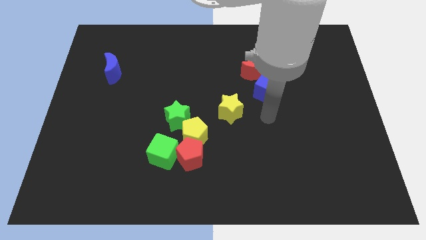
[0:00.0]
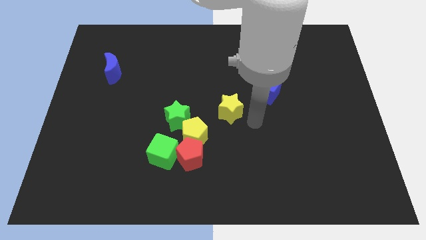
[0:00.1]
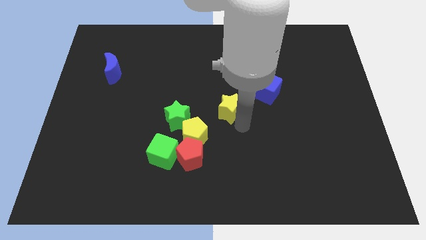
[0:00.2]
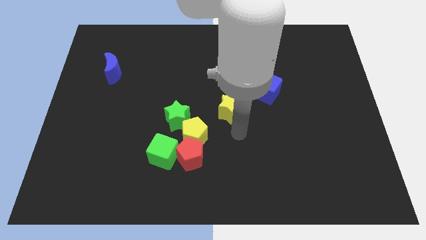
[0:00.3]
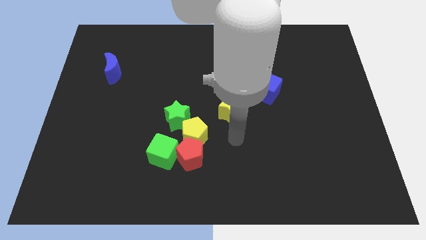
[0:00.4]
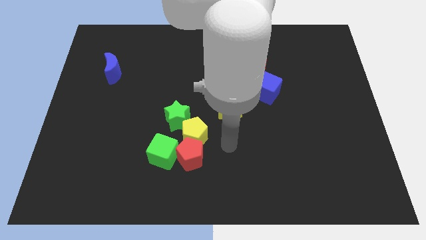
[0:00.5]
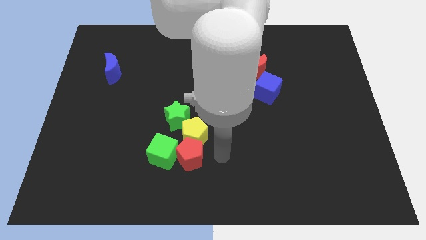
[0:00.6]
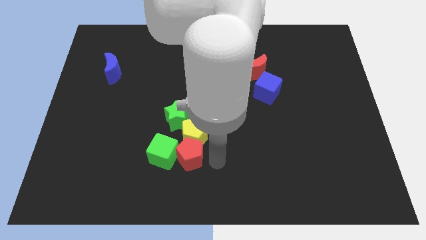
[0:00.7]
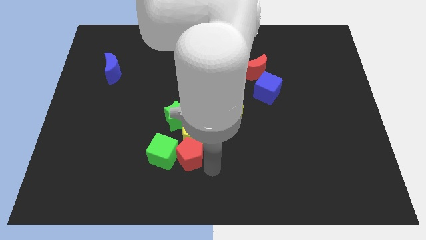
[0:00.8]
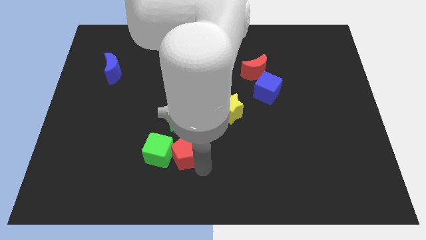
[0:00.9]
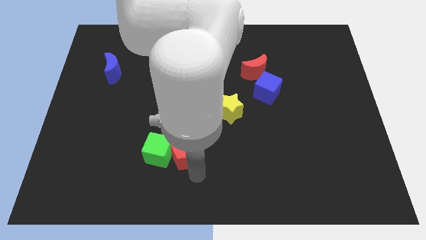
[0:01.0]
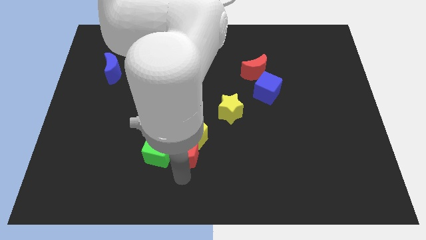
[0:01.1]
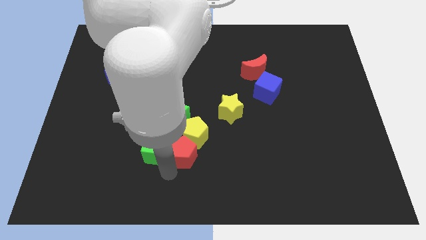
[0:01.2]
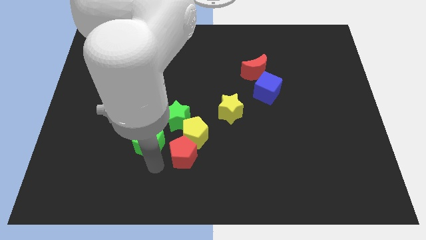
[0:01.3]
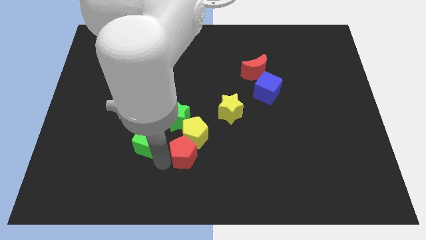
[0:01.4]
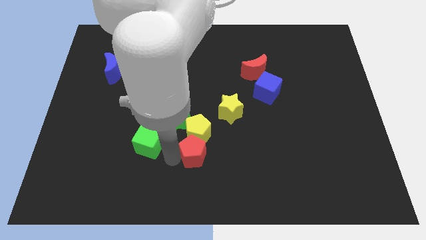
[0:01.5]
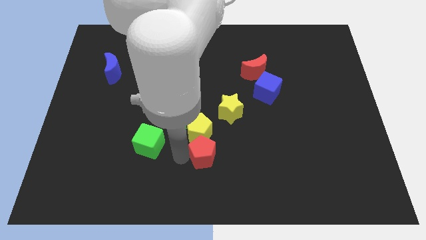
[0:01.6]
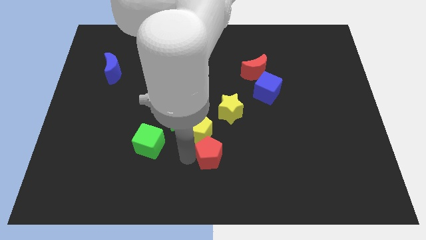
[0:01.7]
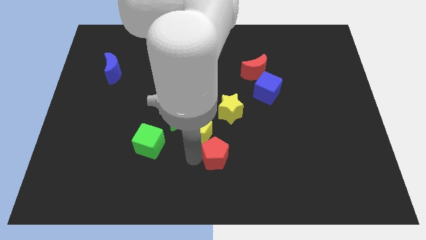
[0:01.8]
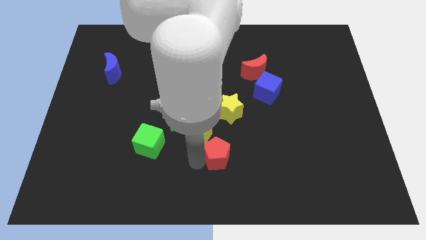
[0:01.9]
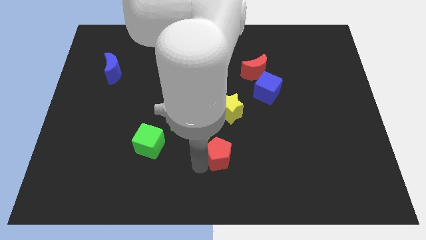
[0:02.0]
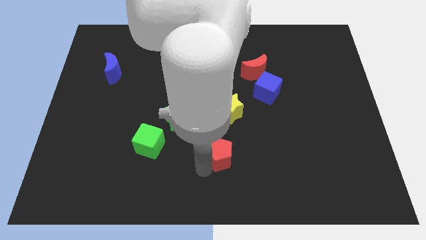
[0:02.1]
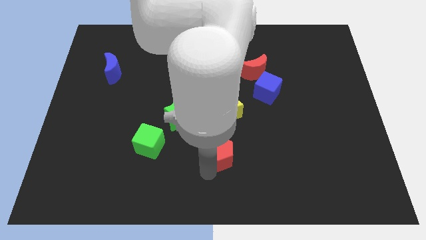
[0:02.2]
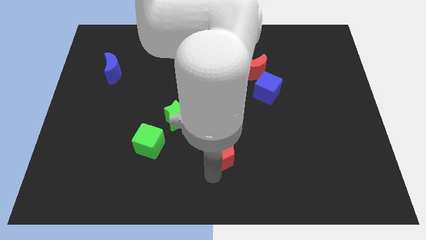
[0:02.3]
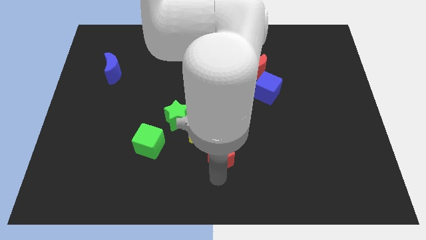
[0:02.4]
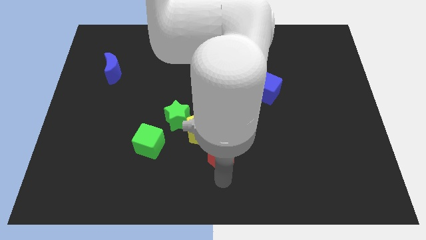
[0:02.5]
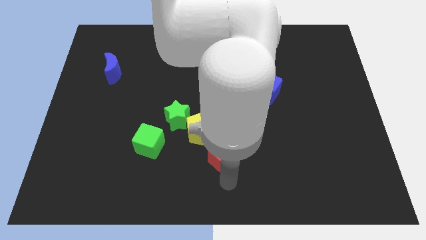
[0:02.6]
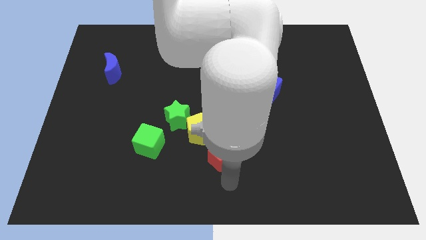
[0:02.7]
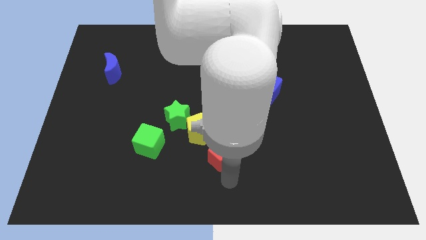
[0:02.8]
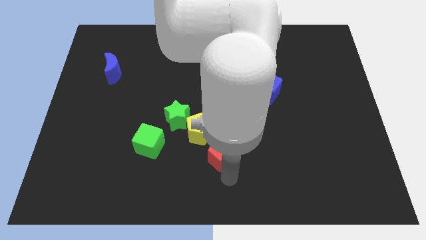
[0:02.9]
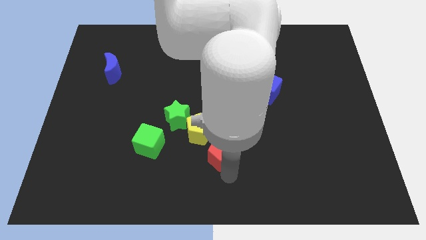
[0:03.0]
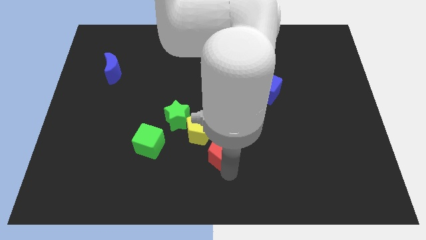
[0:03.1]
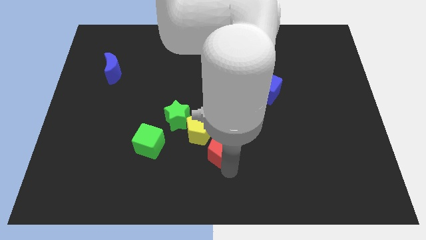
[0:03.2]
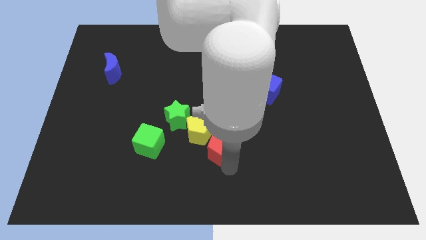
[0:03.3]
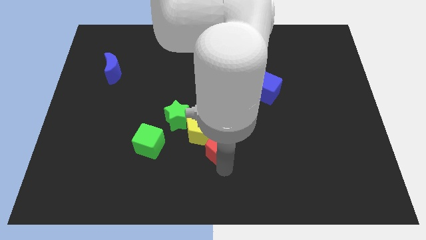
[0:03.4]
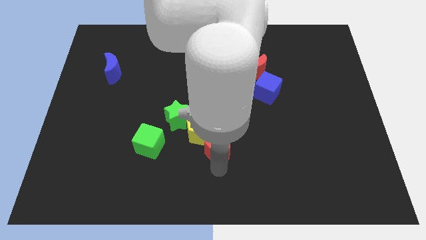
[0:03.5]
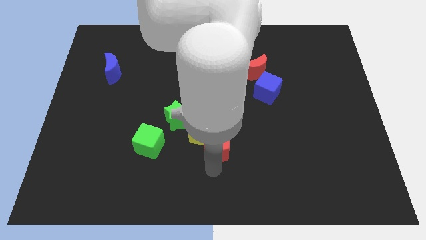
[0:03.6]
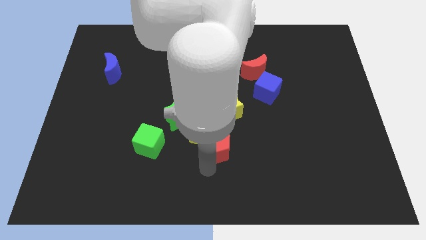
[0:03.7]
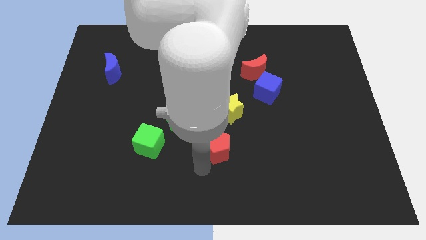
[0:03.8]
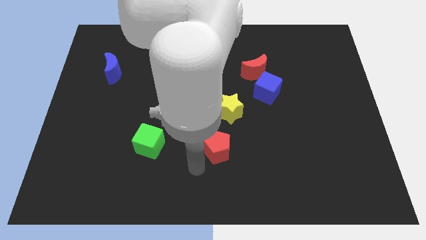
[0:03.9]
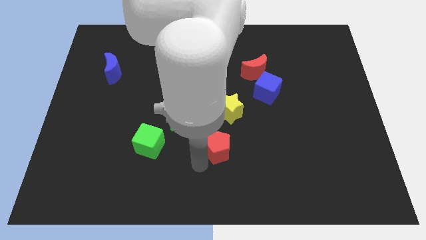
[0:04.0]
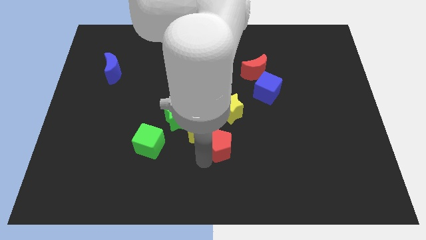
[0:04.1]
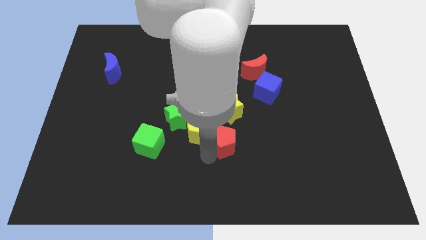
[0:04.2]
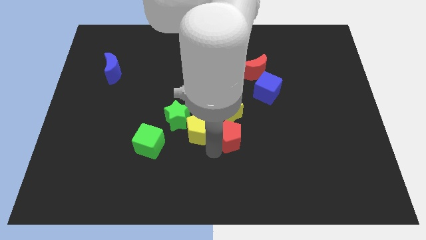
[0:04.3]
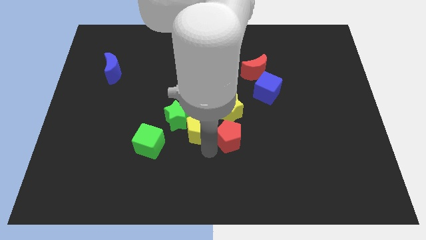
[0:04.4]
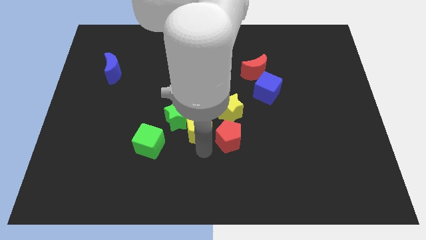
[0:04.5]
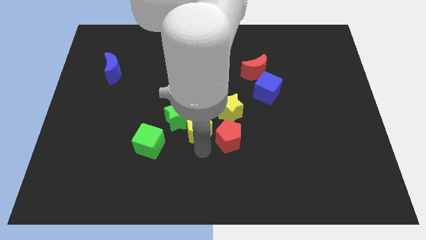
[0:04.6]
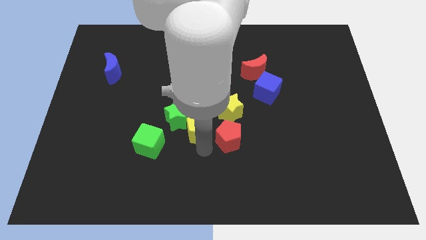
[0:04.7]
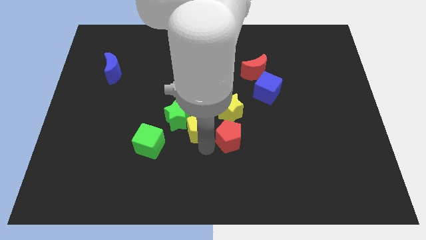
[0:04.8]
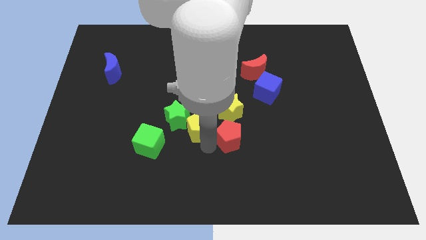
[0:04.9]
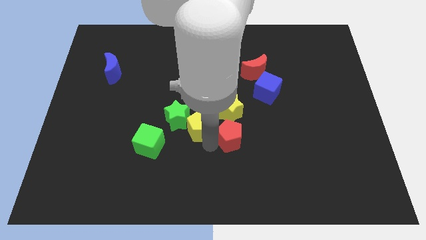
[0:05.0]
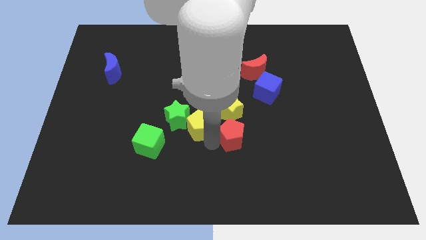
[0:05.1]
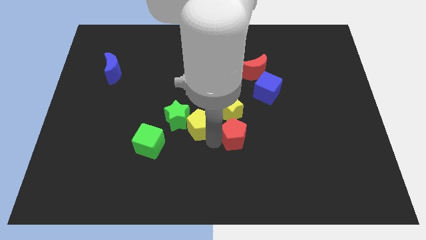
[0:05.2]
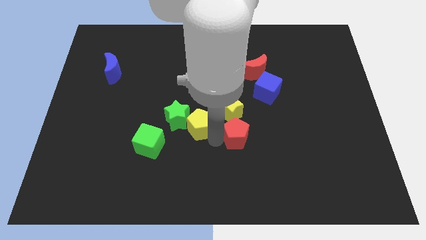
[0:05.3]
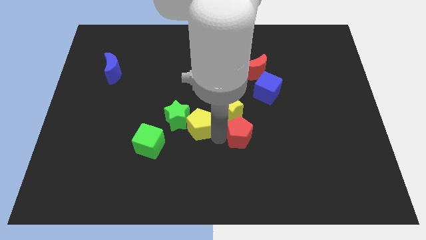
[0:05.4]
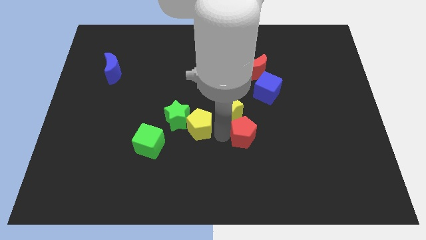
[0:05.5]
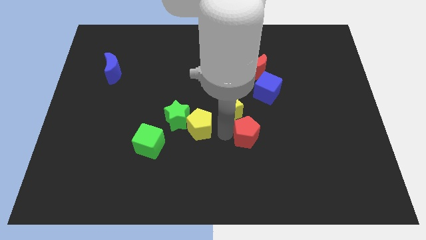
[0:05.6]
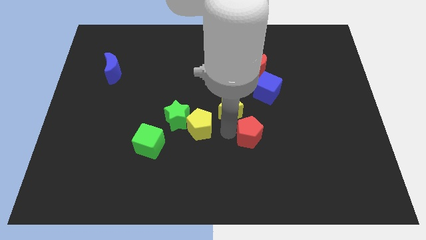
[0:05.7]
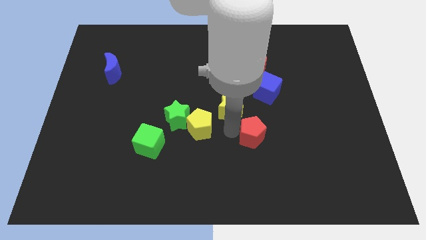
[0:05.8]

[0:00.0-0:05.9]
push the red pentagon to the bottom of the blue cube

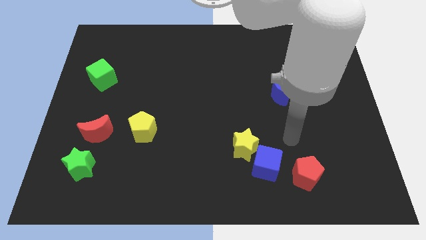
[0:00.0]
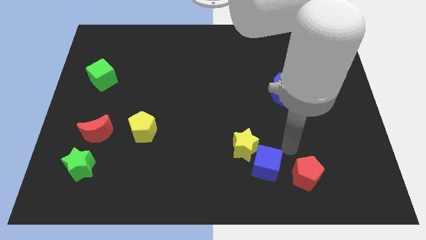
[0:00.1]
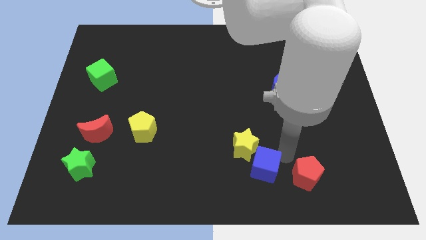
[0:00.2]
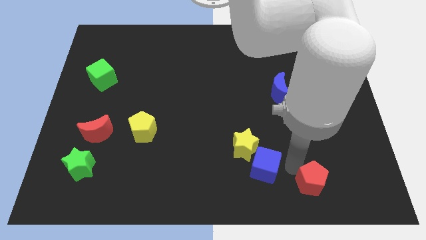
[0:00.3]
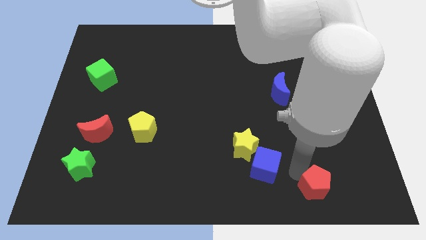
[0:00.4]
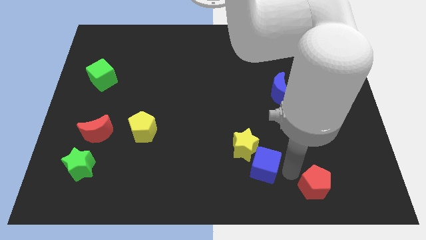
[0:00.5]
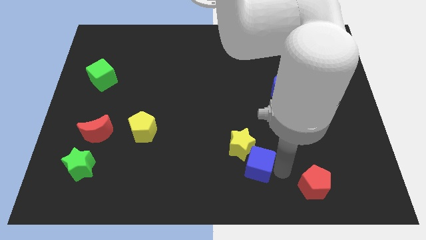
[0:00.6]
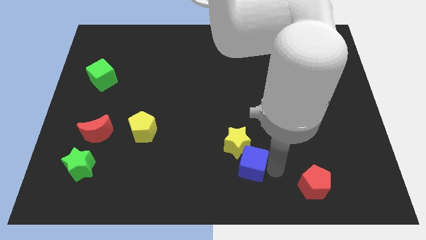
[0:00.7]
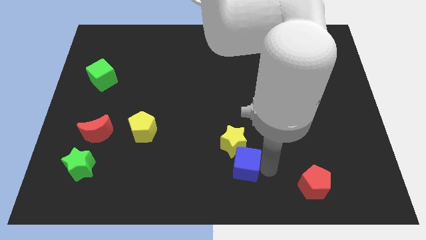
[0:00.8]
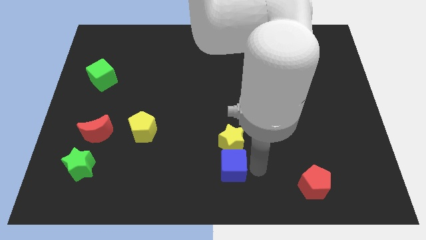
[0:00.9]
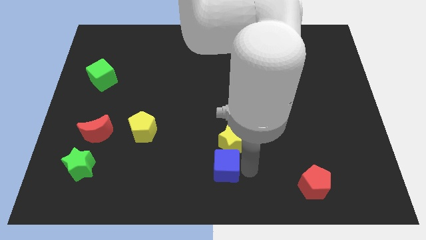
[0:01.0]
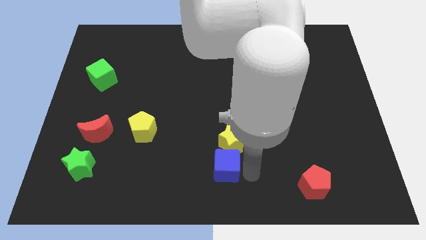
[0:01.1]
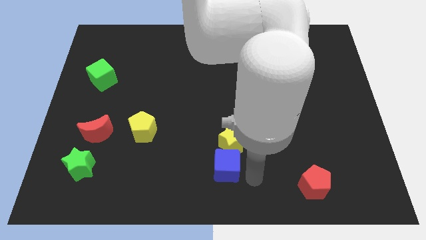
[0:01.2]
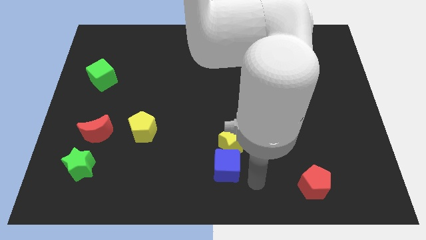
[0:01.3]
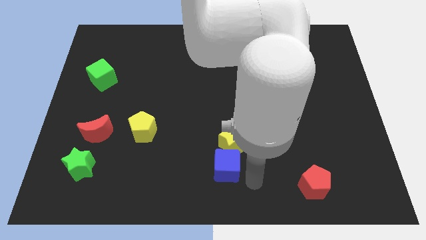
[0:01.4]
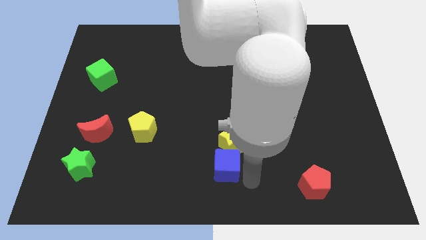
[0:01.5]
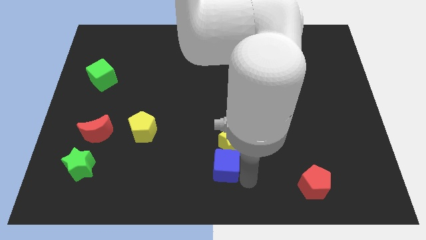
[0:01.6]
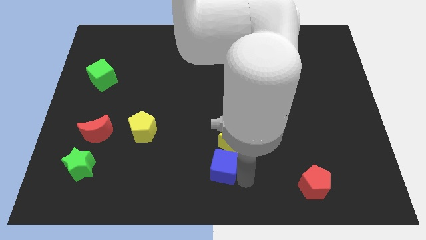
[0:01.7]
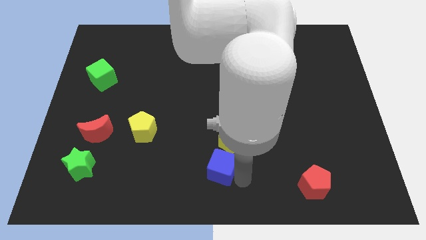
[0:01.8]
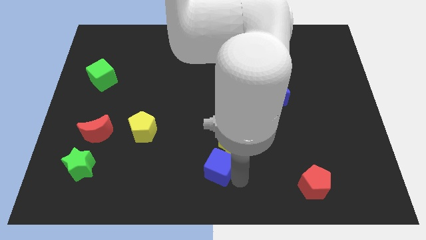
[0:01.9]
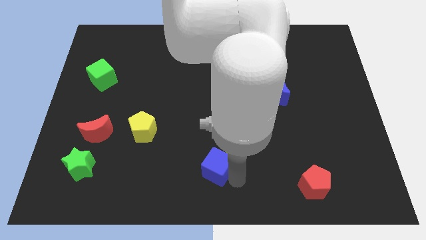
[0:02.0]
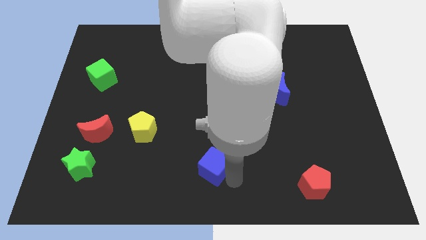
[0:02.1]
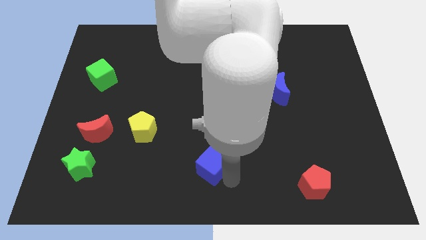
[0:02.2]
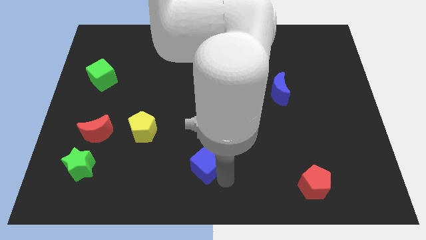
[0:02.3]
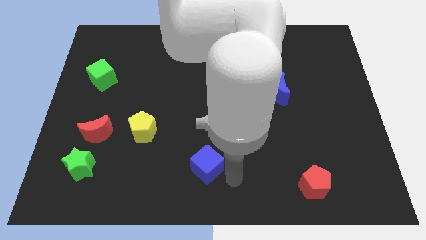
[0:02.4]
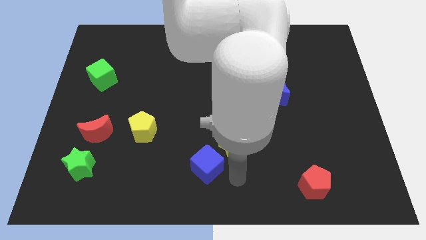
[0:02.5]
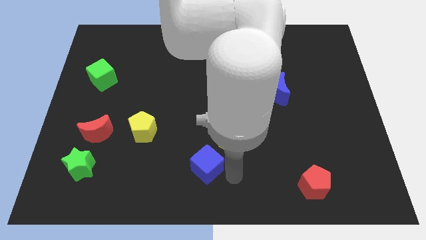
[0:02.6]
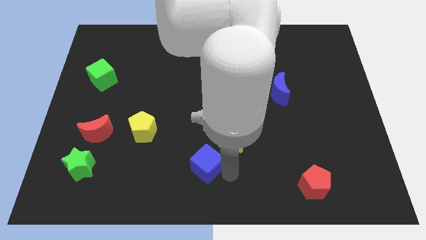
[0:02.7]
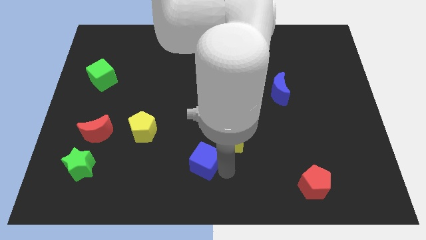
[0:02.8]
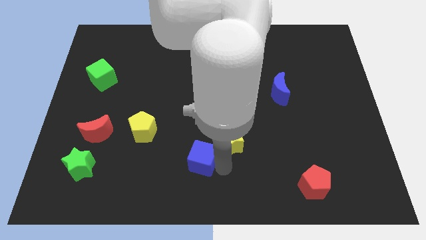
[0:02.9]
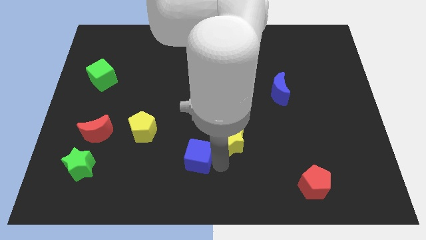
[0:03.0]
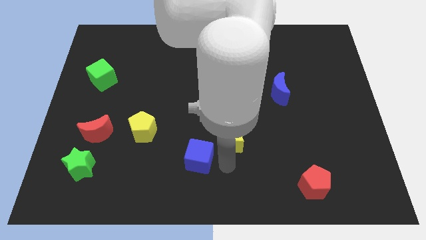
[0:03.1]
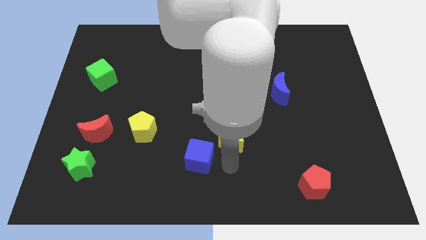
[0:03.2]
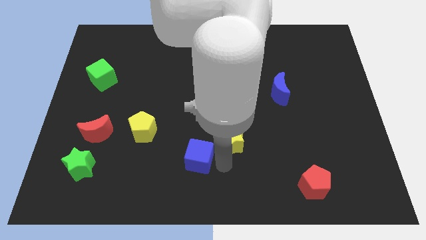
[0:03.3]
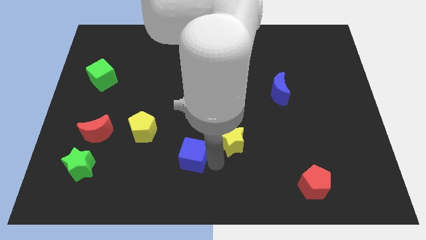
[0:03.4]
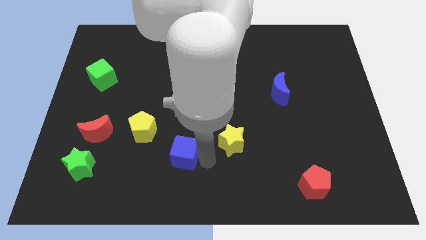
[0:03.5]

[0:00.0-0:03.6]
slide the blue cube to the bottom right of the yellow pentagon
